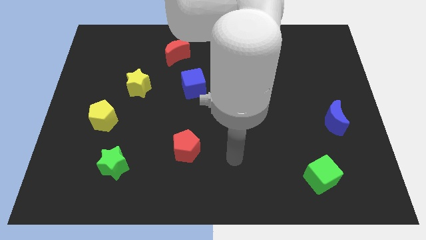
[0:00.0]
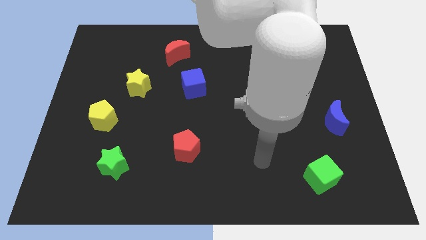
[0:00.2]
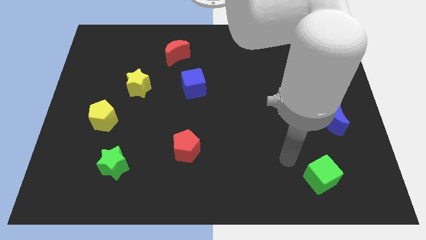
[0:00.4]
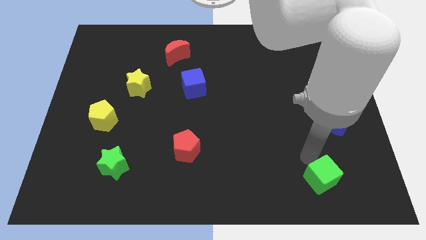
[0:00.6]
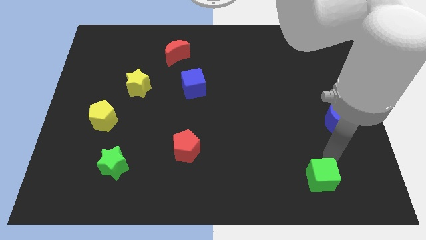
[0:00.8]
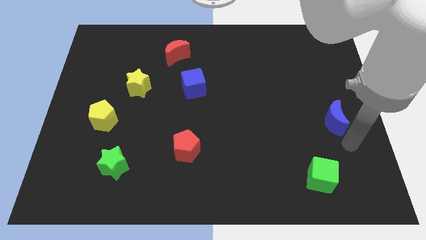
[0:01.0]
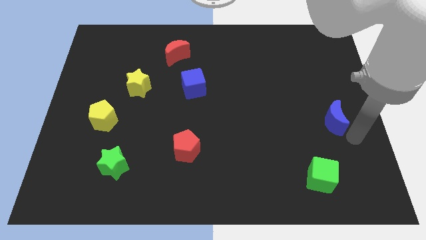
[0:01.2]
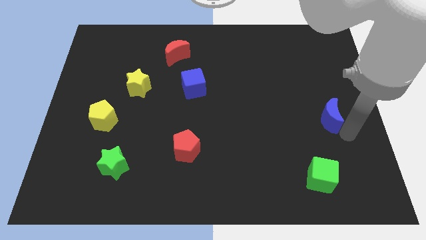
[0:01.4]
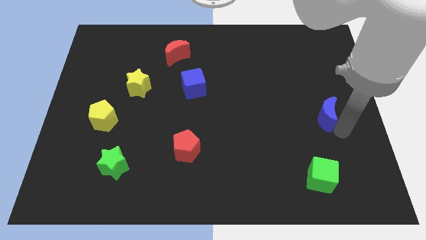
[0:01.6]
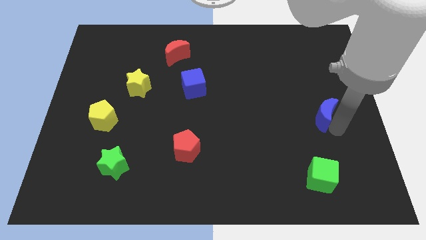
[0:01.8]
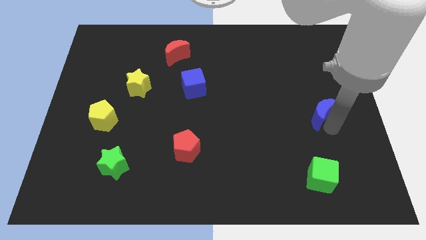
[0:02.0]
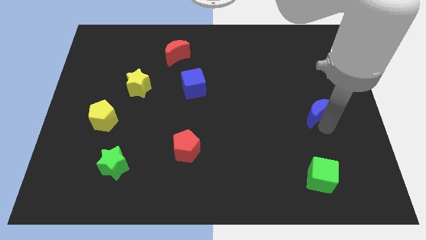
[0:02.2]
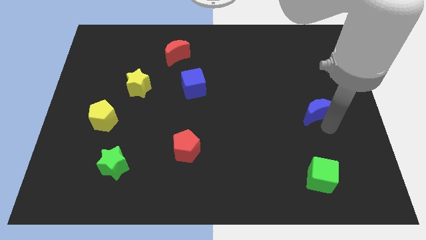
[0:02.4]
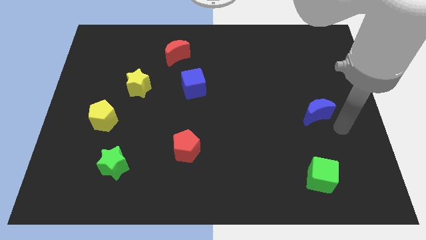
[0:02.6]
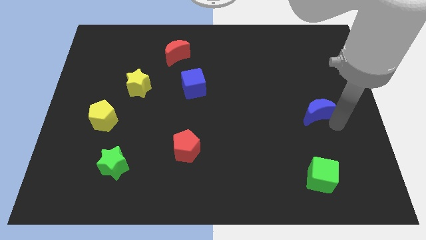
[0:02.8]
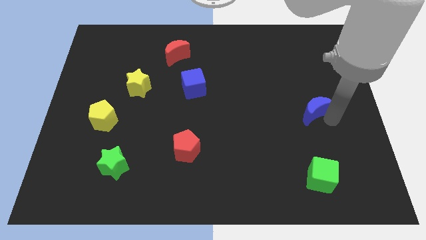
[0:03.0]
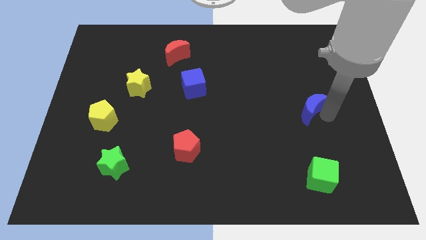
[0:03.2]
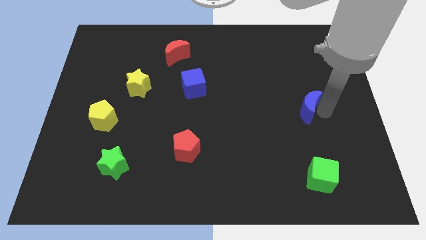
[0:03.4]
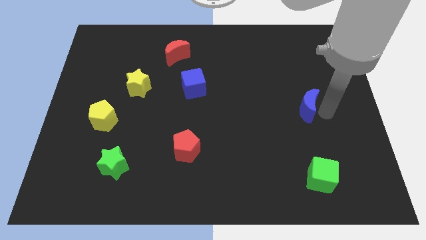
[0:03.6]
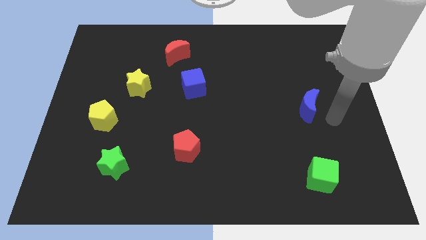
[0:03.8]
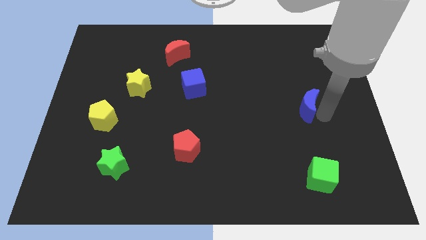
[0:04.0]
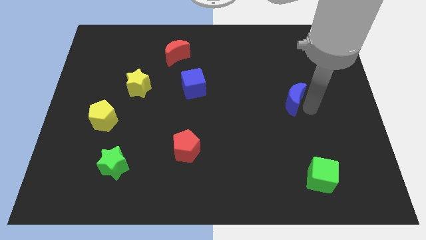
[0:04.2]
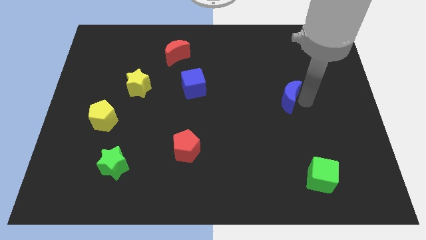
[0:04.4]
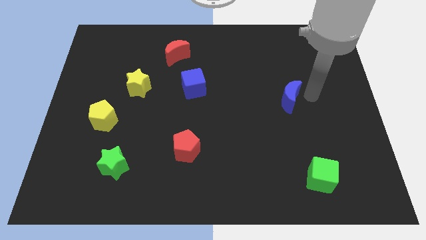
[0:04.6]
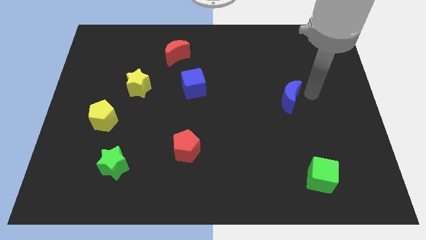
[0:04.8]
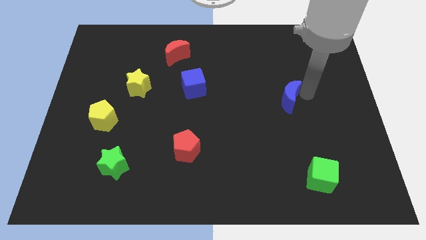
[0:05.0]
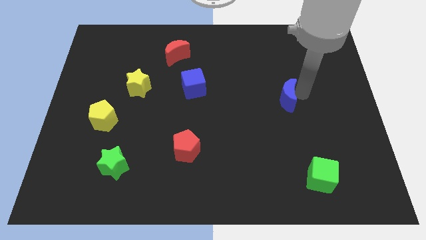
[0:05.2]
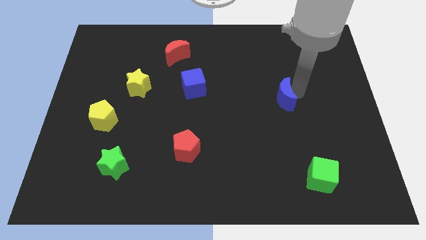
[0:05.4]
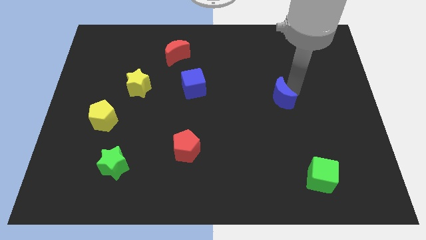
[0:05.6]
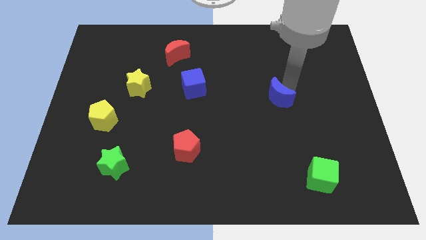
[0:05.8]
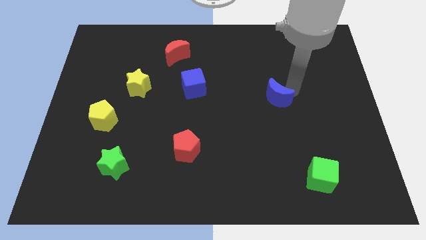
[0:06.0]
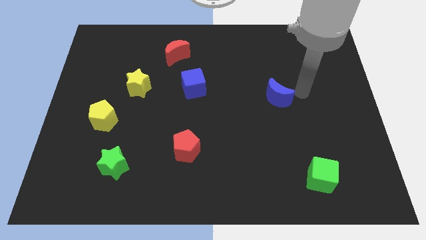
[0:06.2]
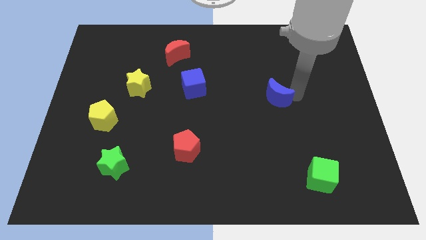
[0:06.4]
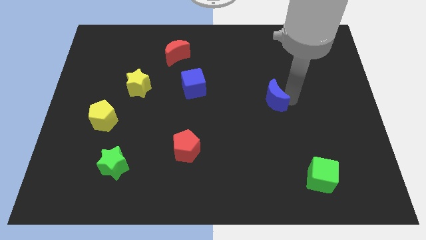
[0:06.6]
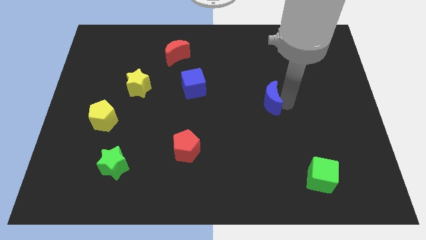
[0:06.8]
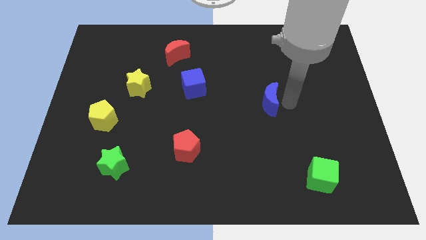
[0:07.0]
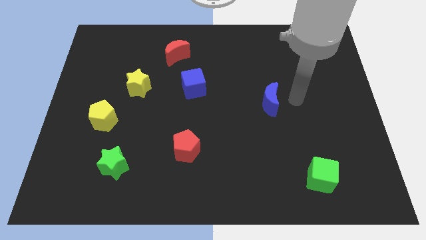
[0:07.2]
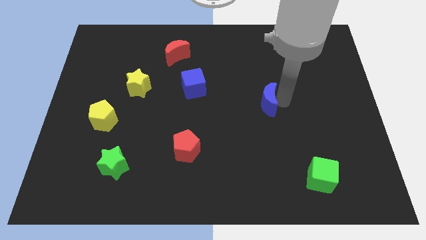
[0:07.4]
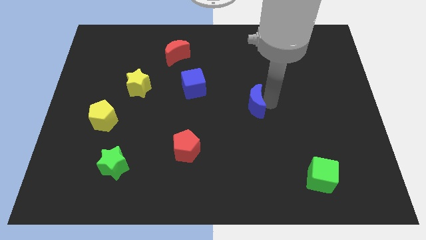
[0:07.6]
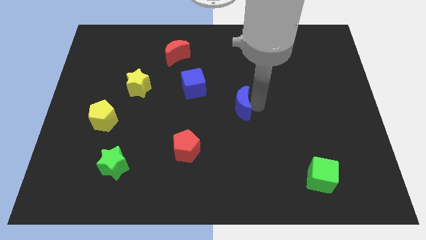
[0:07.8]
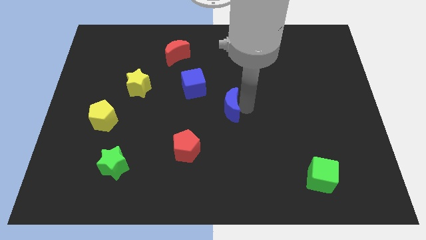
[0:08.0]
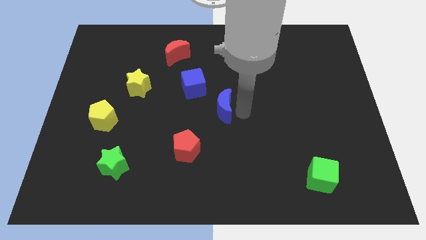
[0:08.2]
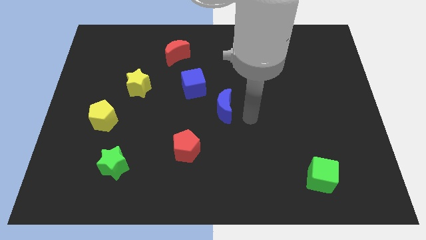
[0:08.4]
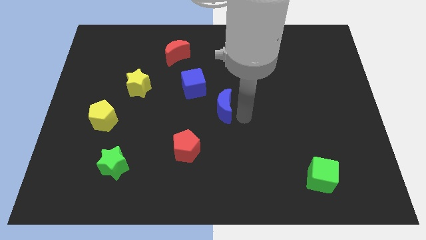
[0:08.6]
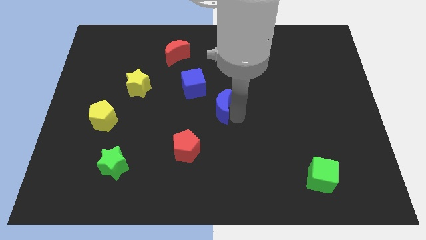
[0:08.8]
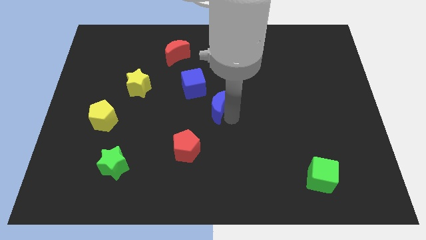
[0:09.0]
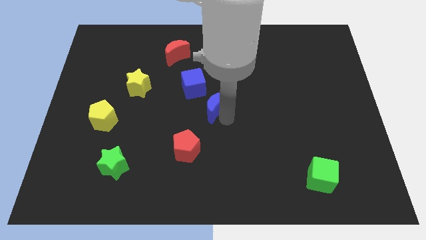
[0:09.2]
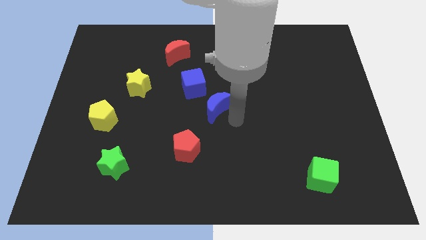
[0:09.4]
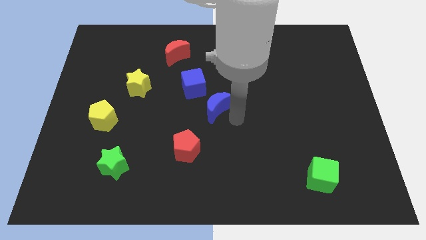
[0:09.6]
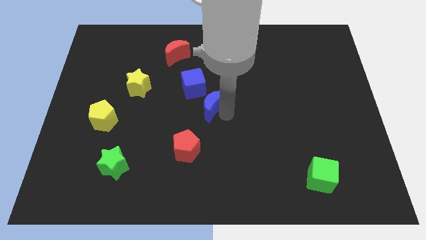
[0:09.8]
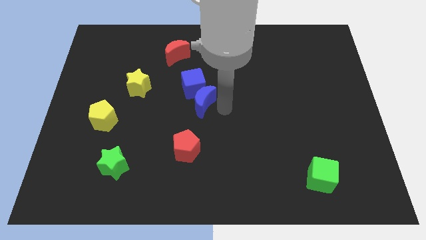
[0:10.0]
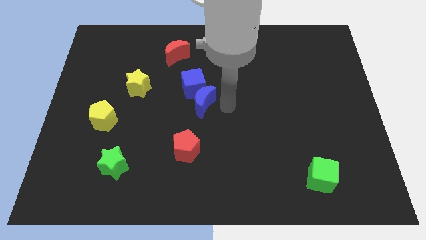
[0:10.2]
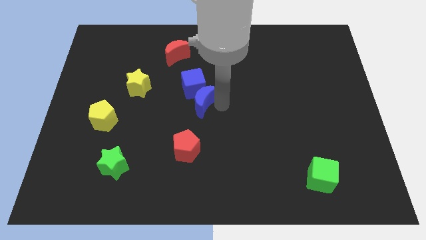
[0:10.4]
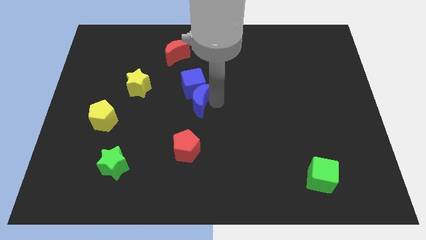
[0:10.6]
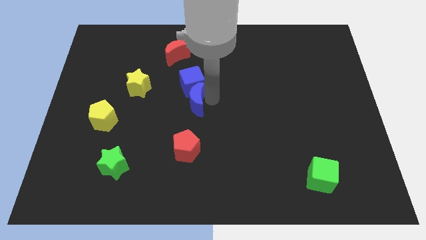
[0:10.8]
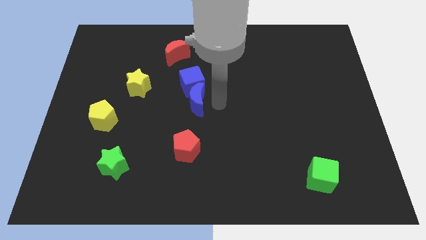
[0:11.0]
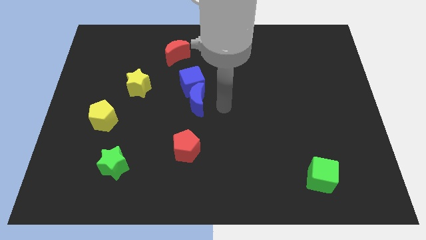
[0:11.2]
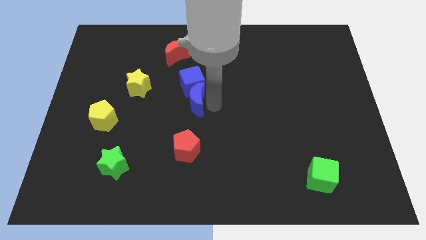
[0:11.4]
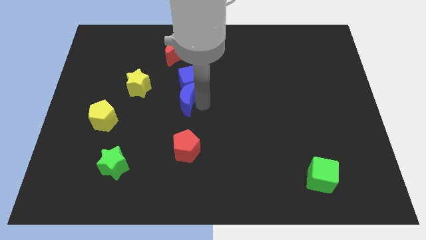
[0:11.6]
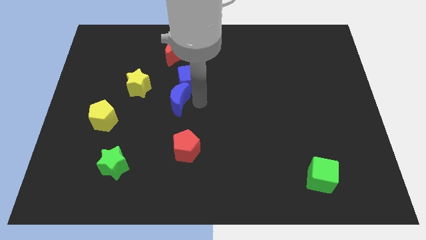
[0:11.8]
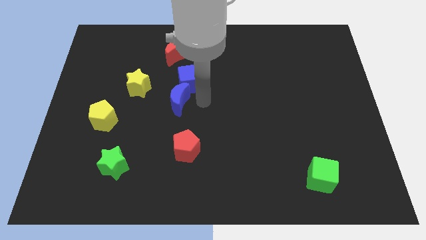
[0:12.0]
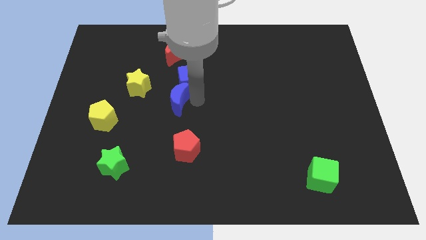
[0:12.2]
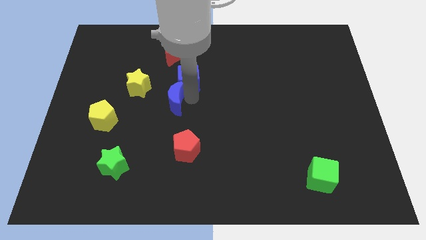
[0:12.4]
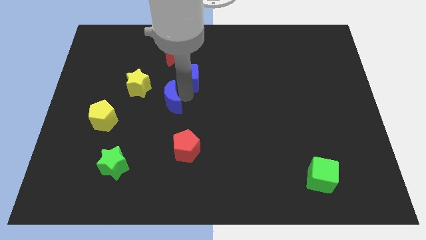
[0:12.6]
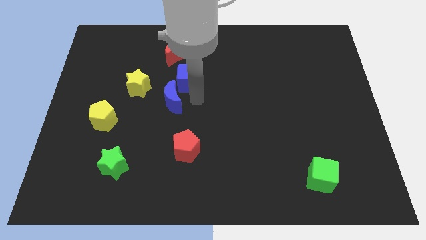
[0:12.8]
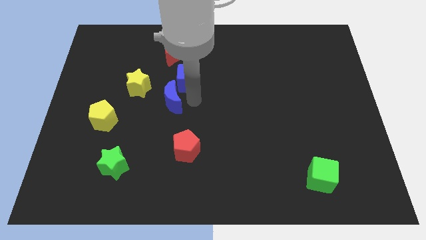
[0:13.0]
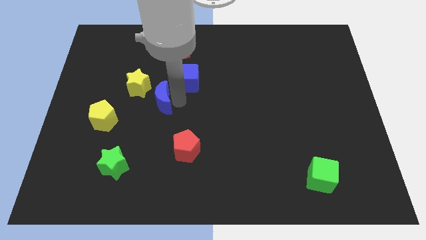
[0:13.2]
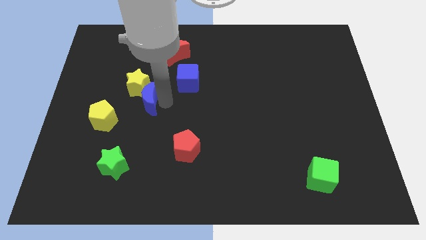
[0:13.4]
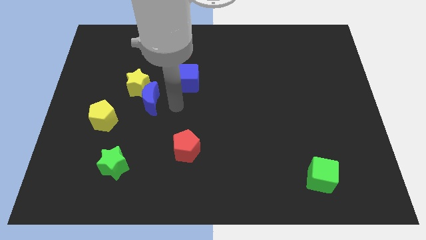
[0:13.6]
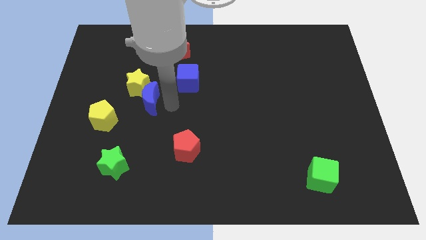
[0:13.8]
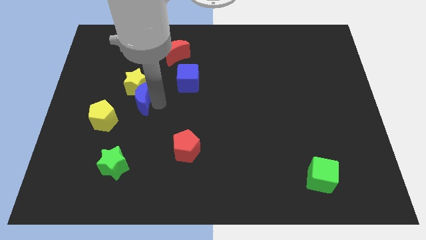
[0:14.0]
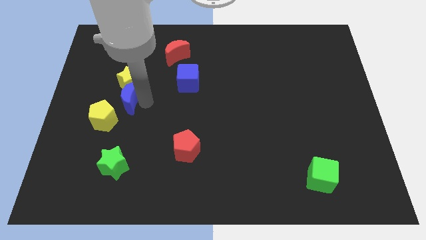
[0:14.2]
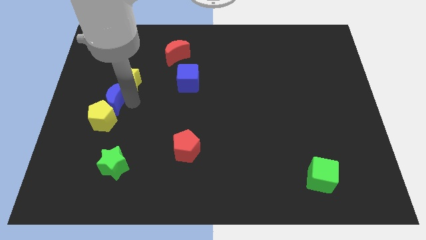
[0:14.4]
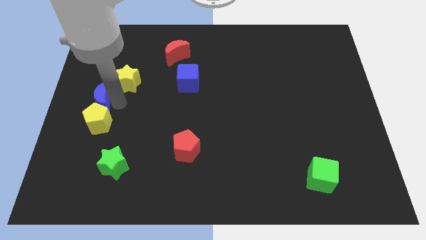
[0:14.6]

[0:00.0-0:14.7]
slide the blue moon to the left side

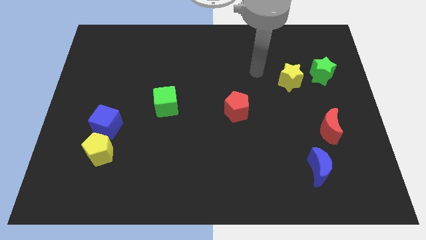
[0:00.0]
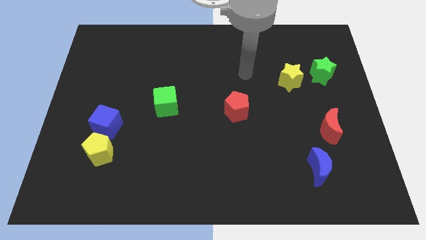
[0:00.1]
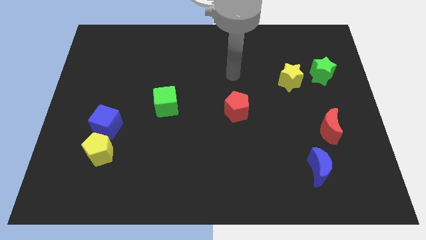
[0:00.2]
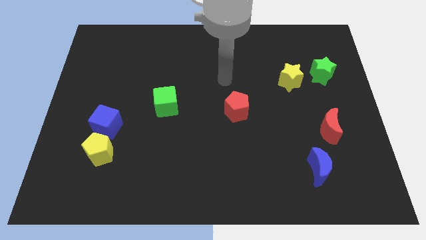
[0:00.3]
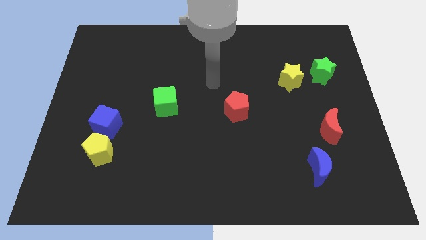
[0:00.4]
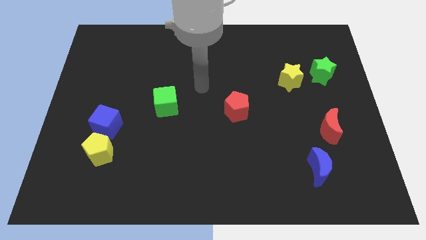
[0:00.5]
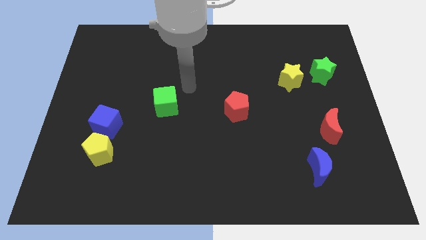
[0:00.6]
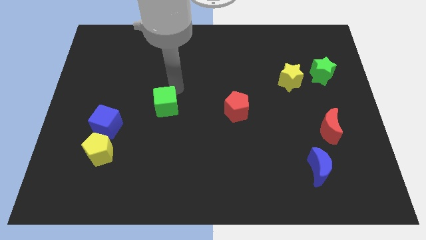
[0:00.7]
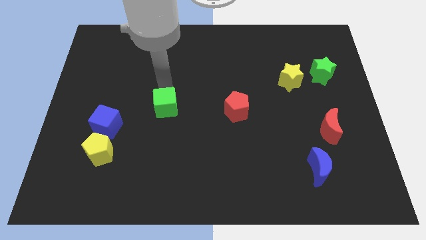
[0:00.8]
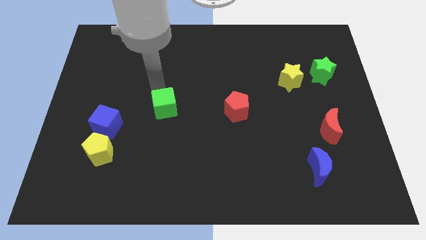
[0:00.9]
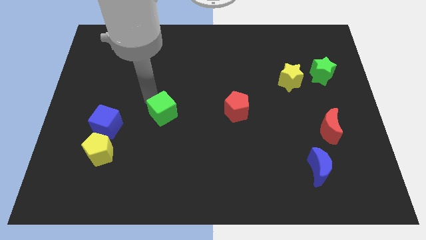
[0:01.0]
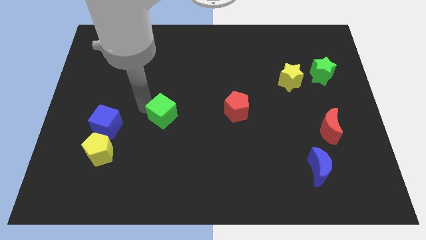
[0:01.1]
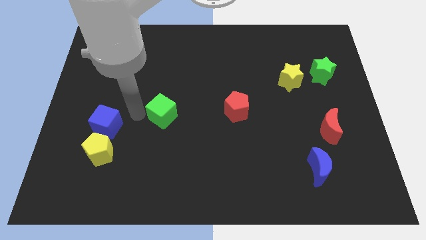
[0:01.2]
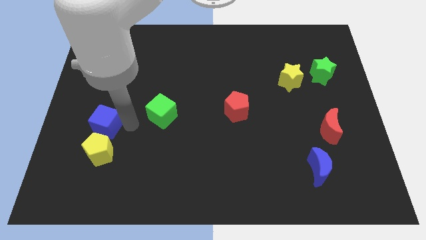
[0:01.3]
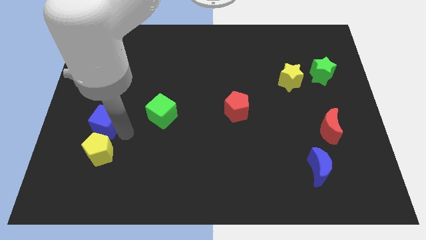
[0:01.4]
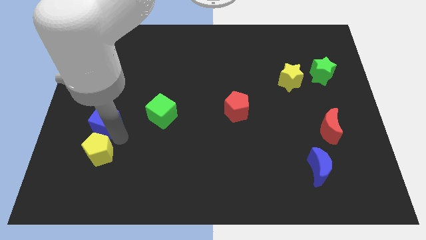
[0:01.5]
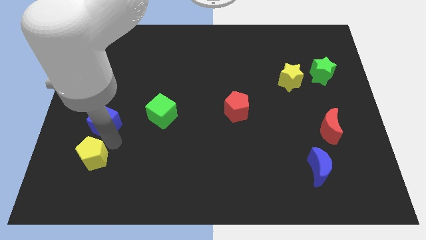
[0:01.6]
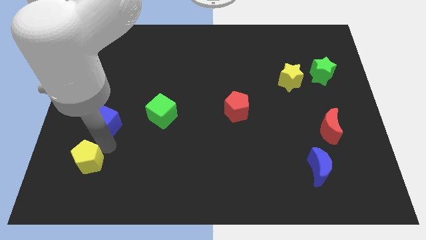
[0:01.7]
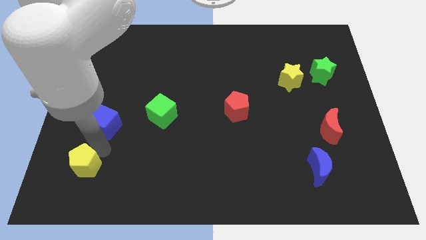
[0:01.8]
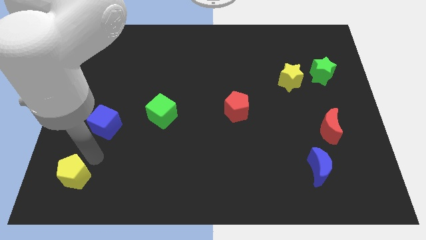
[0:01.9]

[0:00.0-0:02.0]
move the yellow pentagon to the bottom left of the board
